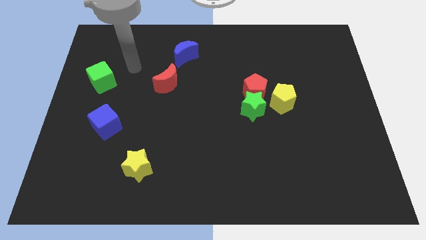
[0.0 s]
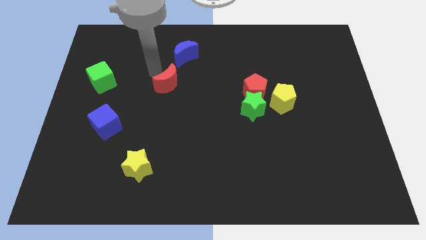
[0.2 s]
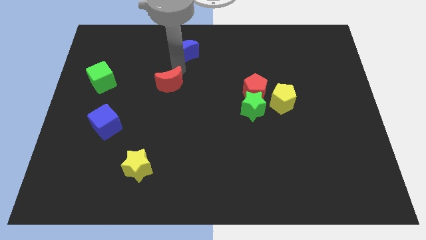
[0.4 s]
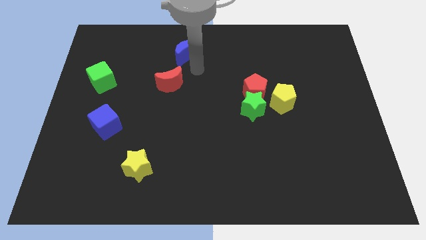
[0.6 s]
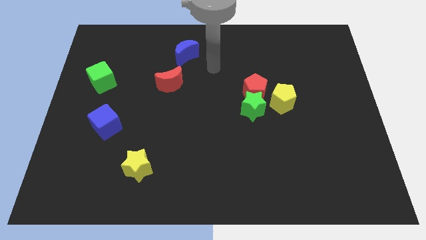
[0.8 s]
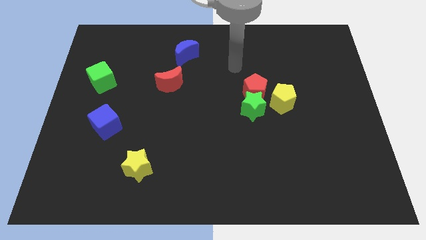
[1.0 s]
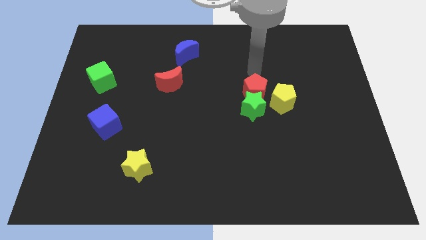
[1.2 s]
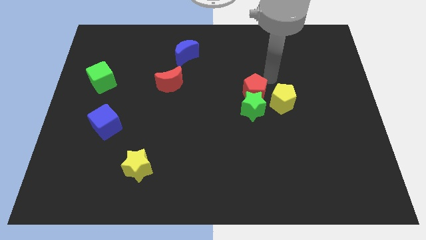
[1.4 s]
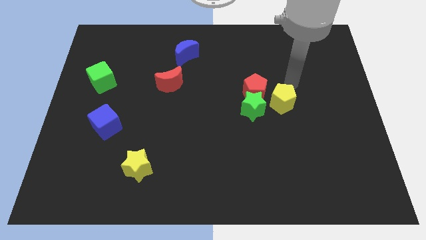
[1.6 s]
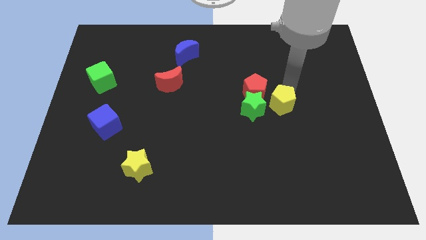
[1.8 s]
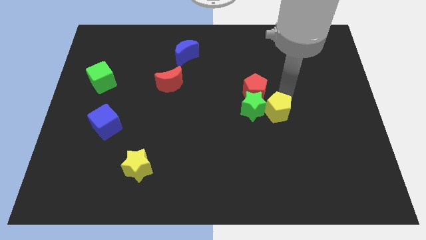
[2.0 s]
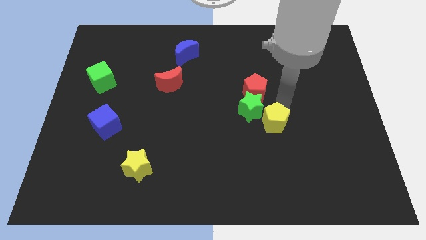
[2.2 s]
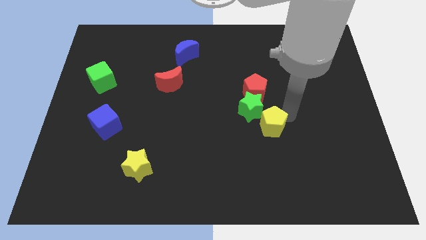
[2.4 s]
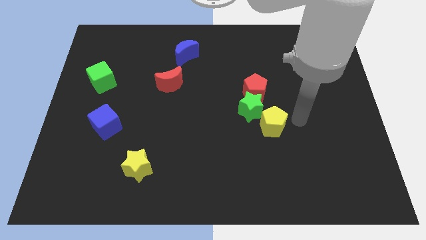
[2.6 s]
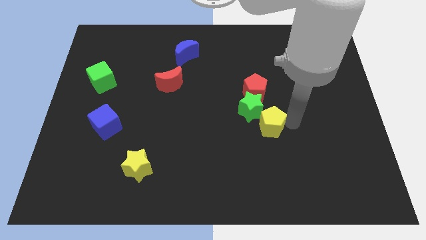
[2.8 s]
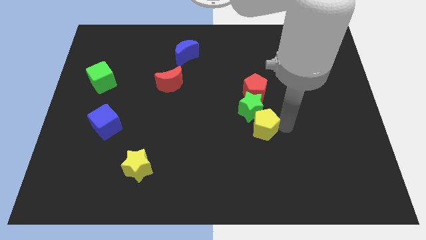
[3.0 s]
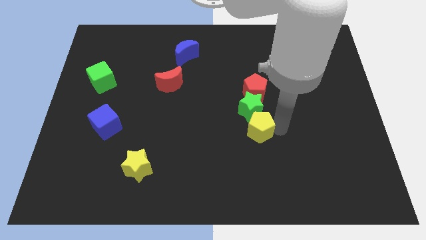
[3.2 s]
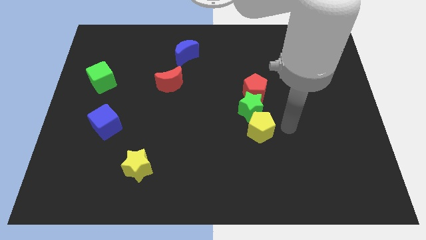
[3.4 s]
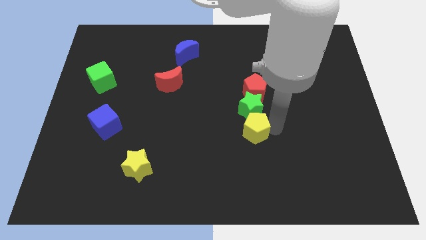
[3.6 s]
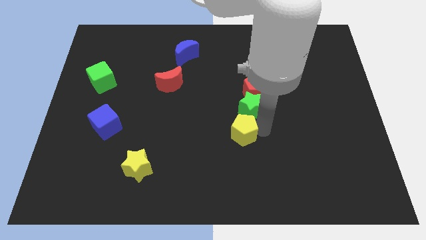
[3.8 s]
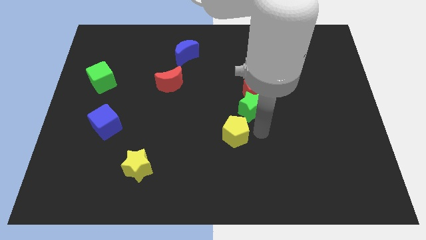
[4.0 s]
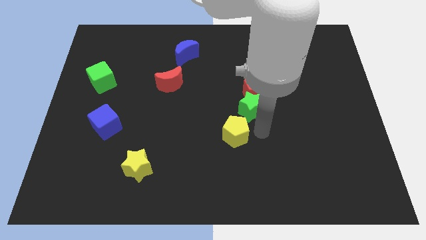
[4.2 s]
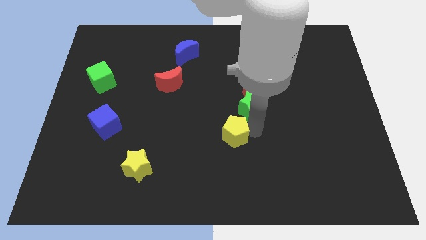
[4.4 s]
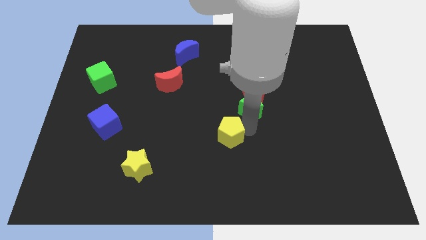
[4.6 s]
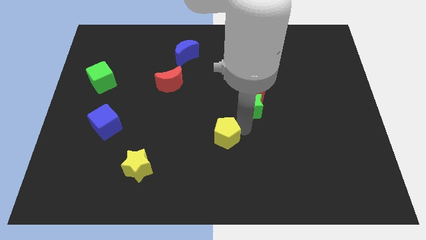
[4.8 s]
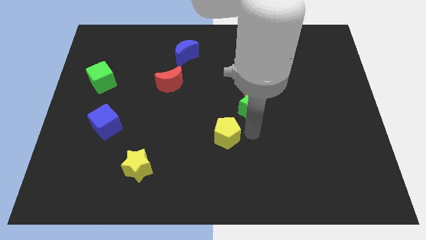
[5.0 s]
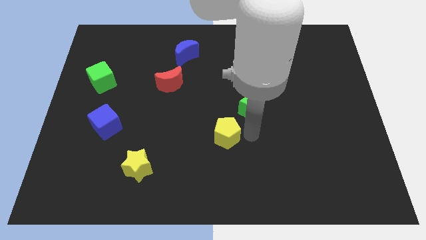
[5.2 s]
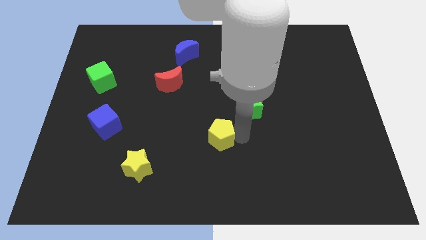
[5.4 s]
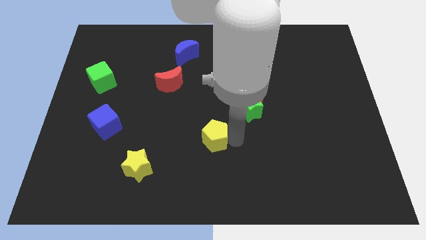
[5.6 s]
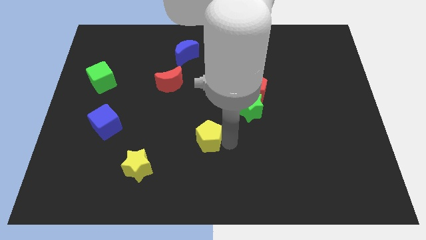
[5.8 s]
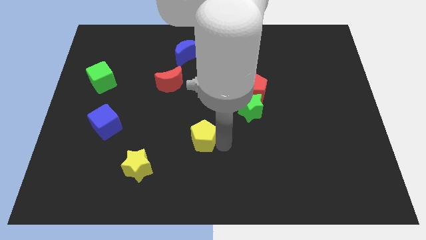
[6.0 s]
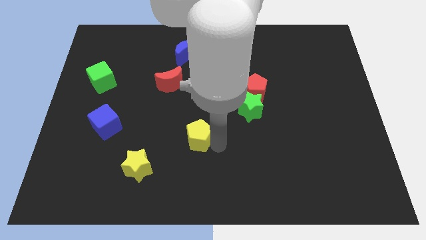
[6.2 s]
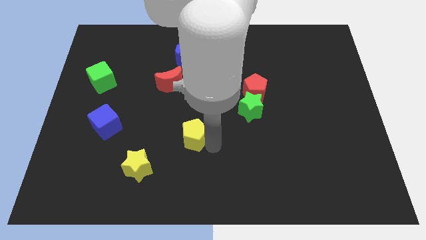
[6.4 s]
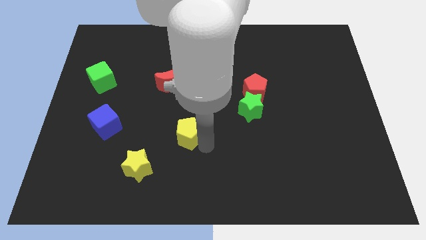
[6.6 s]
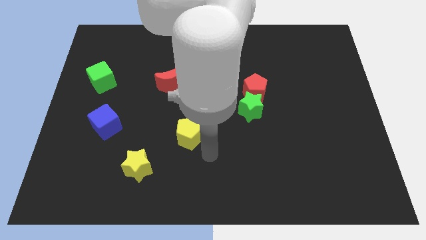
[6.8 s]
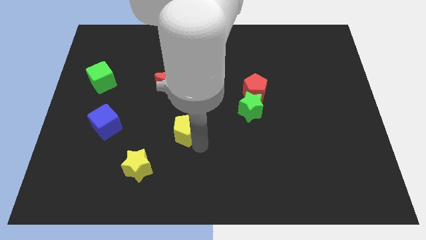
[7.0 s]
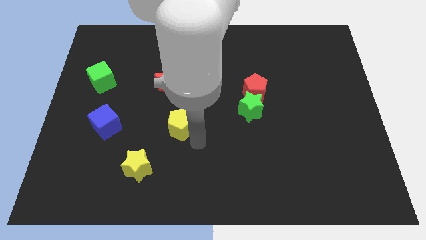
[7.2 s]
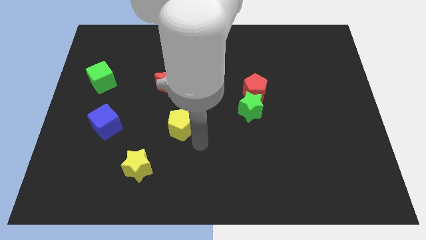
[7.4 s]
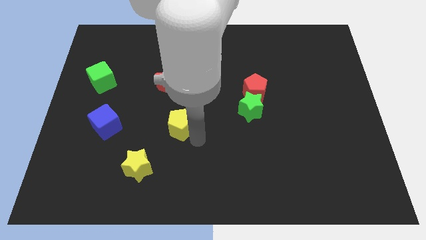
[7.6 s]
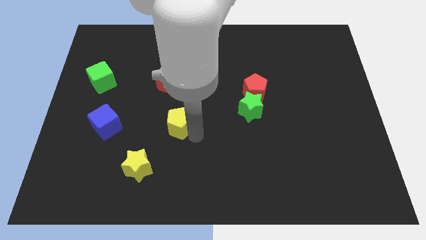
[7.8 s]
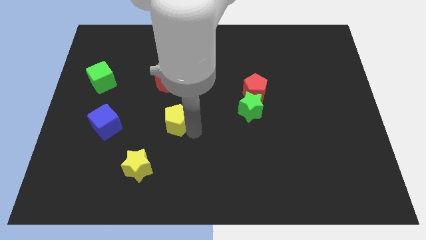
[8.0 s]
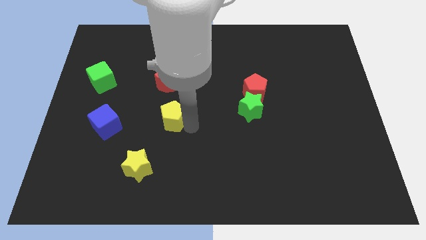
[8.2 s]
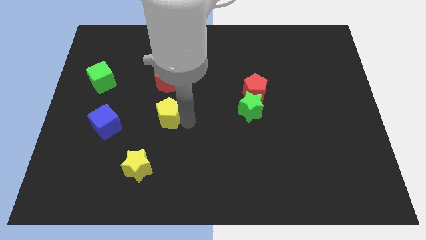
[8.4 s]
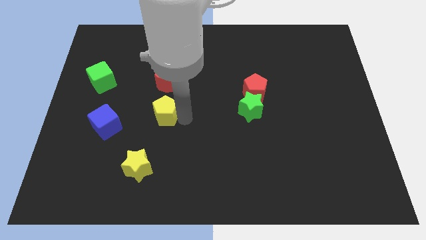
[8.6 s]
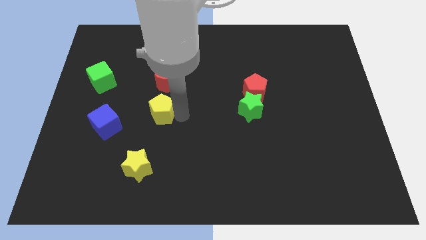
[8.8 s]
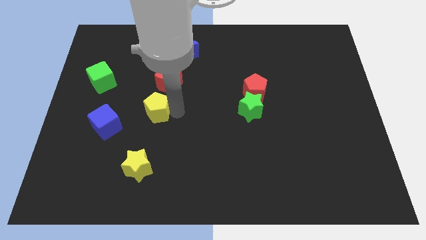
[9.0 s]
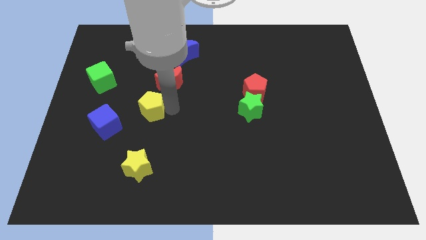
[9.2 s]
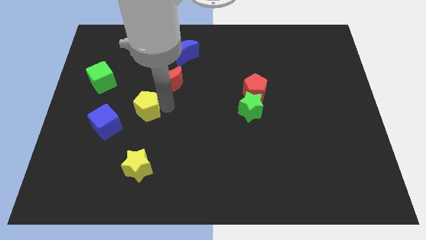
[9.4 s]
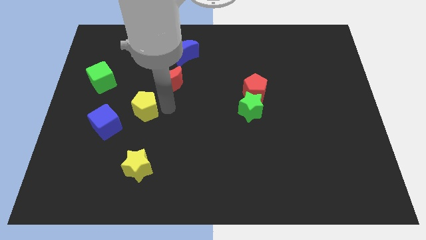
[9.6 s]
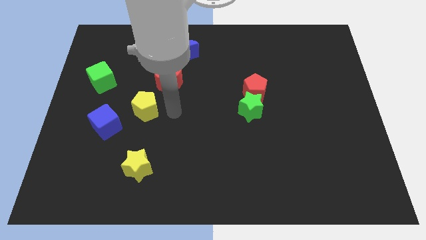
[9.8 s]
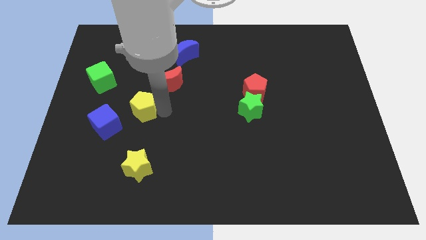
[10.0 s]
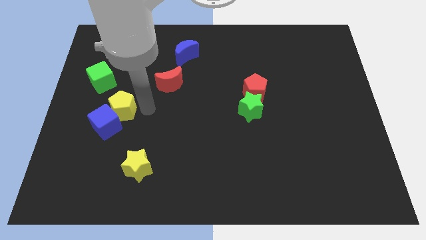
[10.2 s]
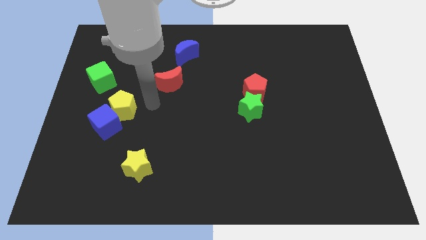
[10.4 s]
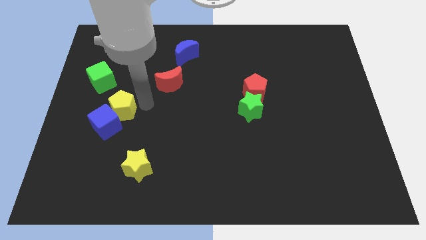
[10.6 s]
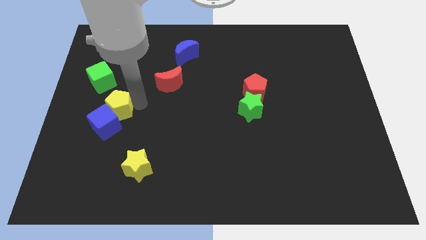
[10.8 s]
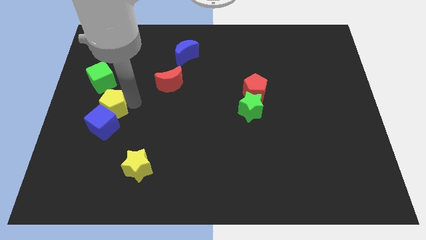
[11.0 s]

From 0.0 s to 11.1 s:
slide the yellow pentagon to the bottom side of the green cube

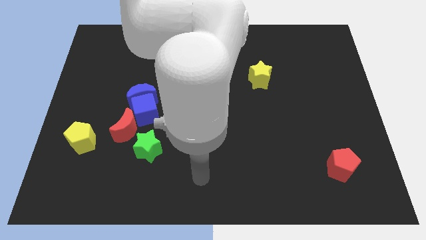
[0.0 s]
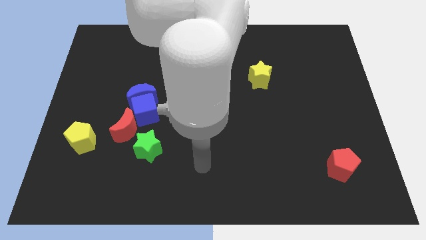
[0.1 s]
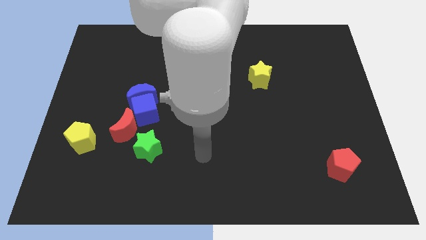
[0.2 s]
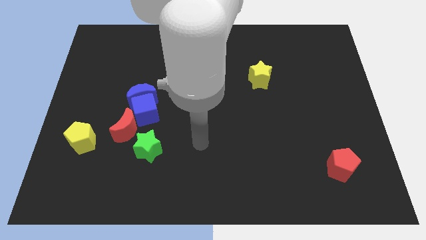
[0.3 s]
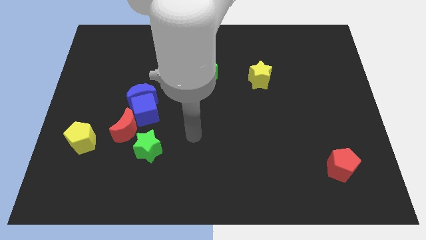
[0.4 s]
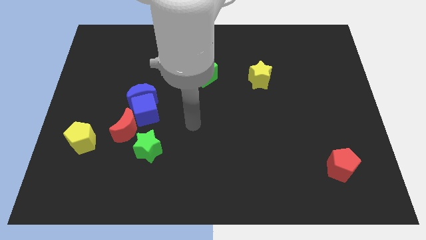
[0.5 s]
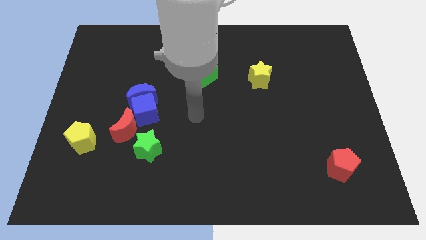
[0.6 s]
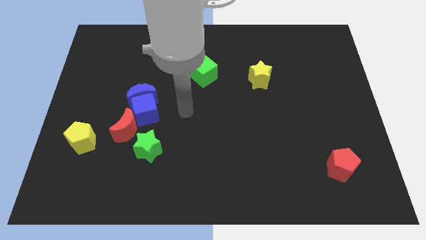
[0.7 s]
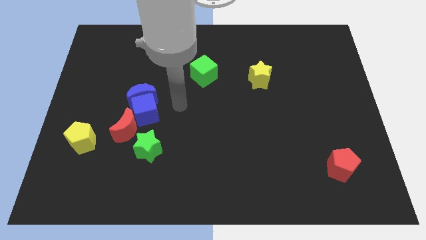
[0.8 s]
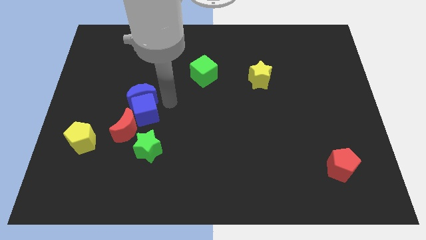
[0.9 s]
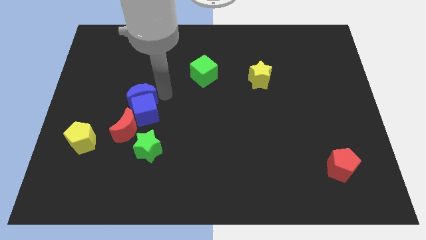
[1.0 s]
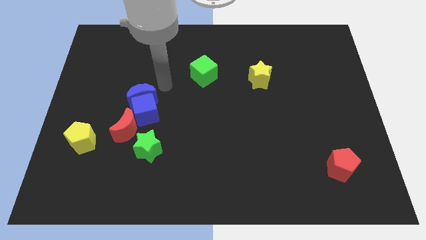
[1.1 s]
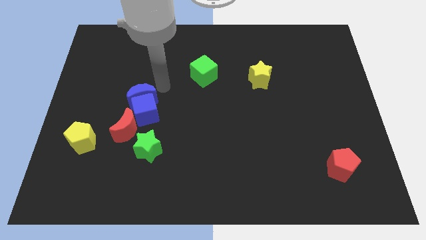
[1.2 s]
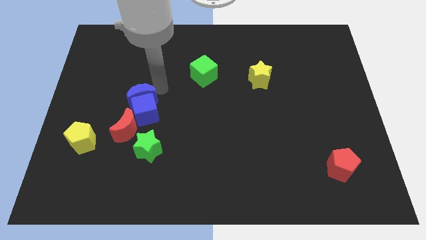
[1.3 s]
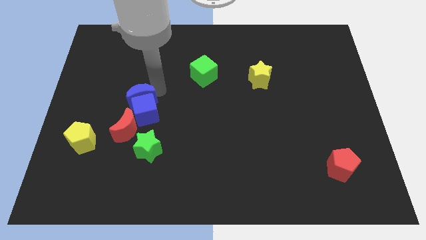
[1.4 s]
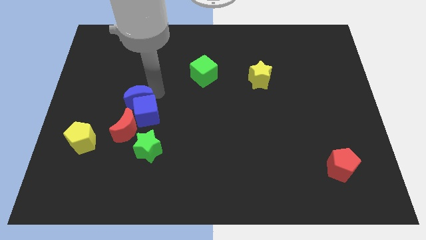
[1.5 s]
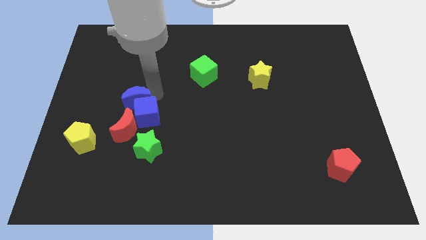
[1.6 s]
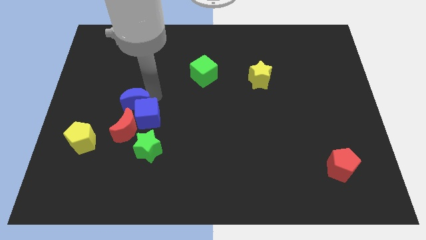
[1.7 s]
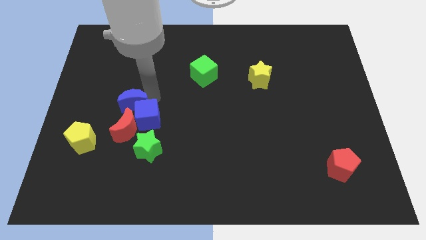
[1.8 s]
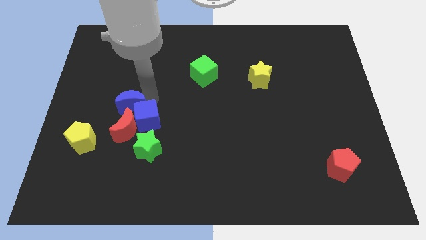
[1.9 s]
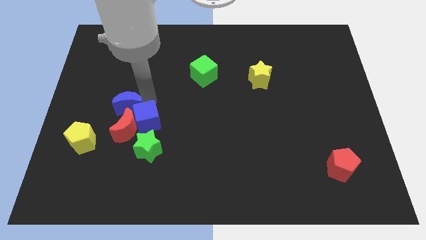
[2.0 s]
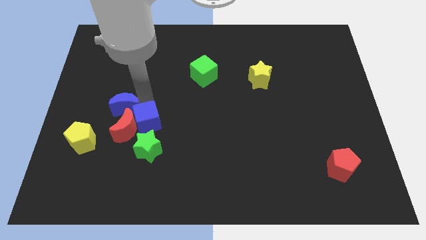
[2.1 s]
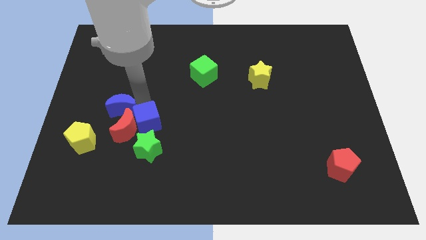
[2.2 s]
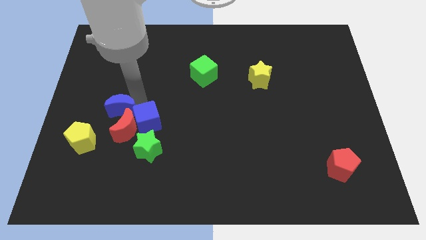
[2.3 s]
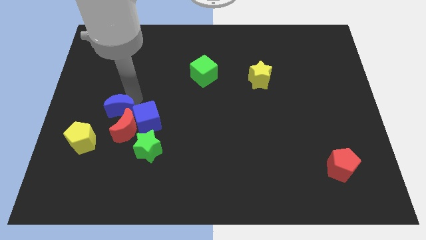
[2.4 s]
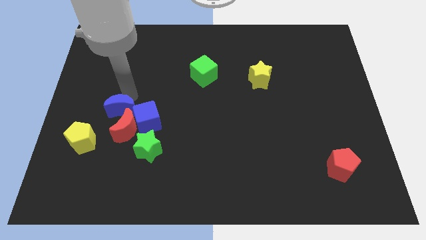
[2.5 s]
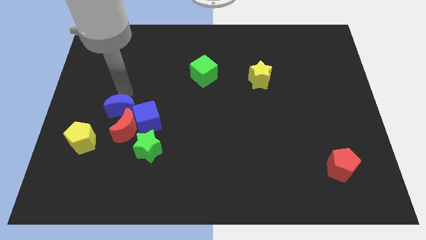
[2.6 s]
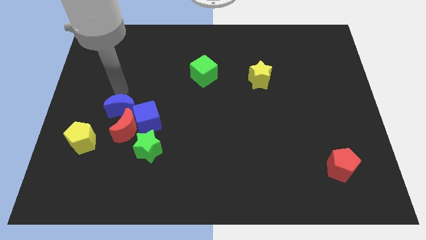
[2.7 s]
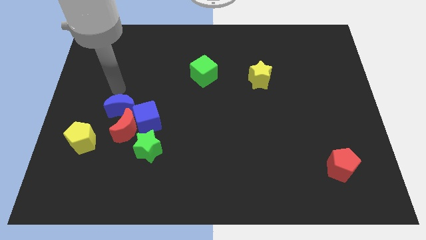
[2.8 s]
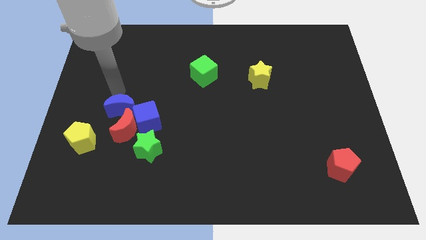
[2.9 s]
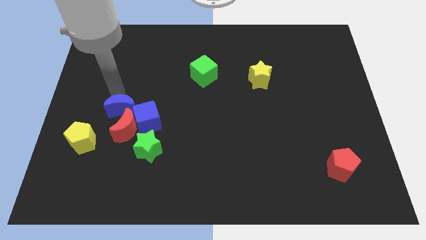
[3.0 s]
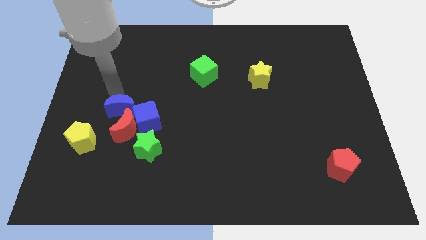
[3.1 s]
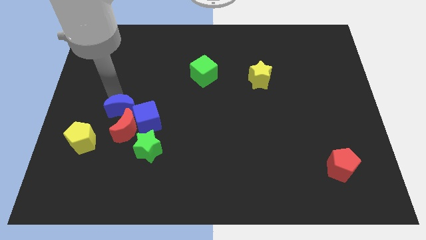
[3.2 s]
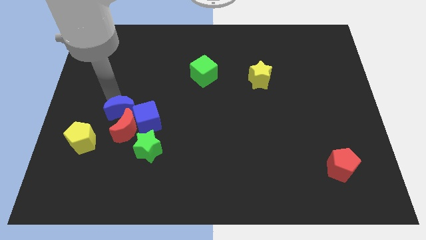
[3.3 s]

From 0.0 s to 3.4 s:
push the blue moon to the top left side of the green star
